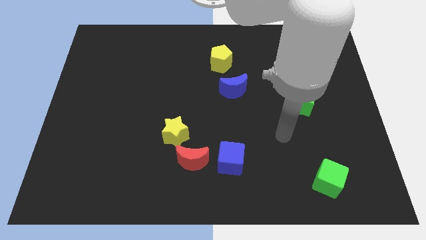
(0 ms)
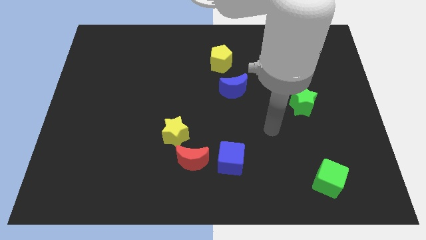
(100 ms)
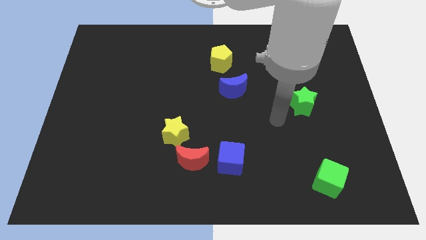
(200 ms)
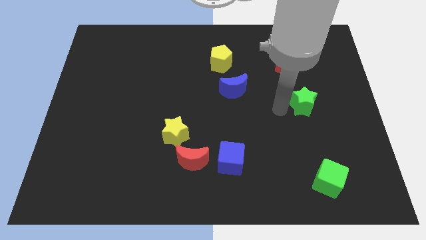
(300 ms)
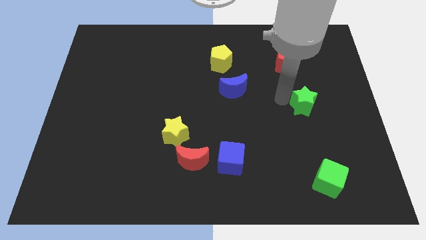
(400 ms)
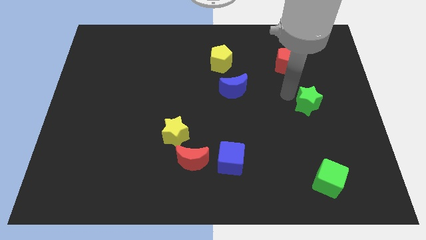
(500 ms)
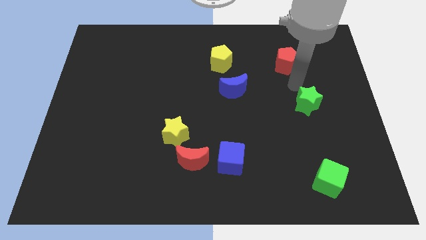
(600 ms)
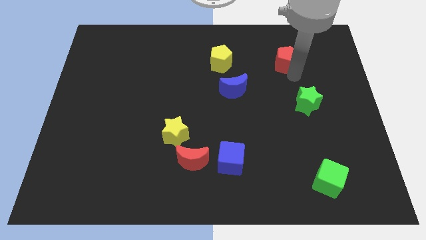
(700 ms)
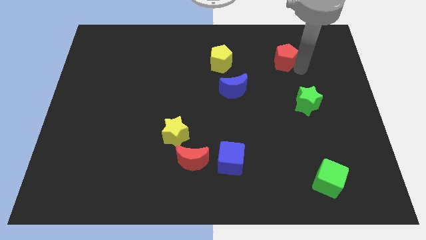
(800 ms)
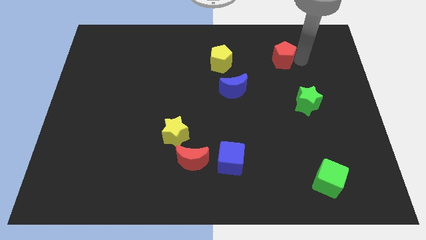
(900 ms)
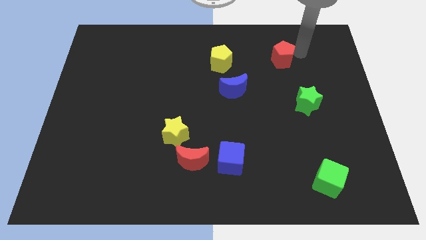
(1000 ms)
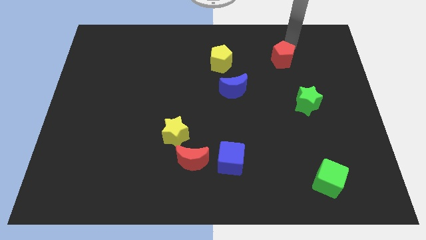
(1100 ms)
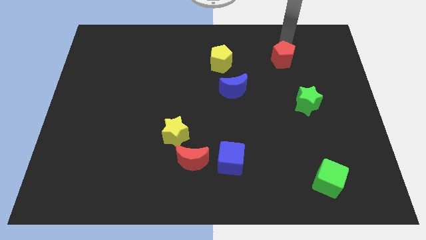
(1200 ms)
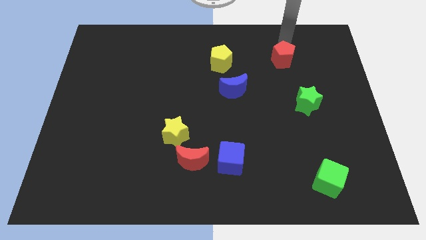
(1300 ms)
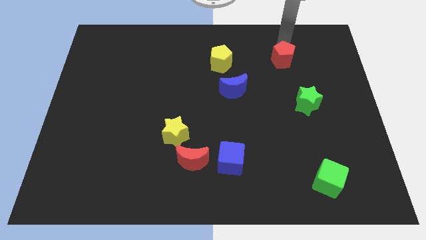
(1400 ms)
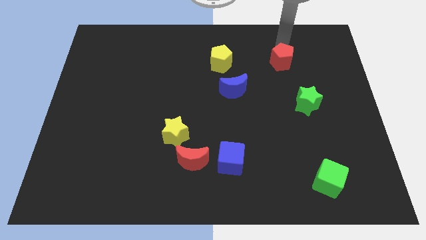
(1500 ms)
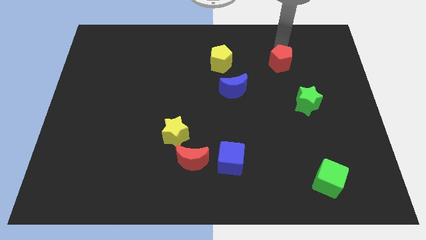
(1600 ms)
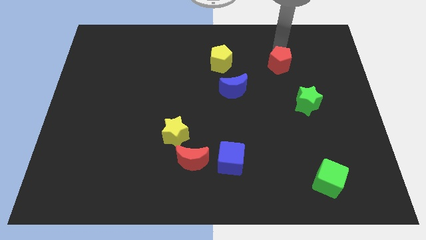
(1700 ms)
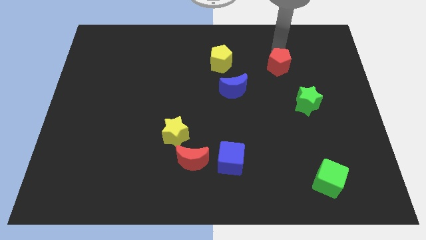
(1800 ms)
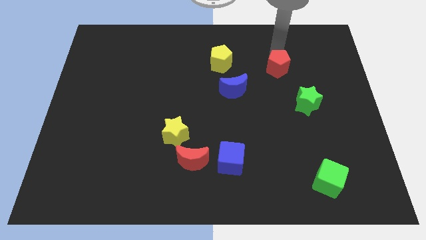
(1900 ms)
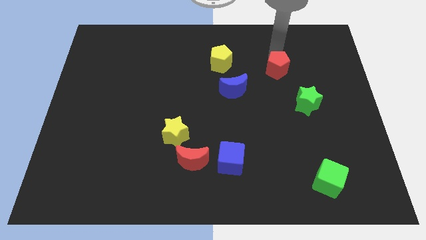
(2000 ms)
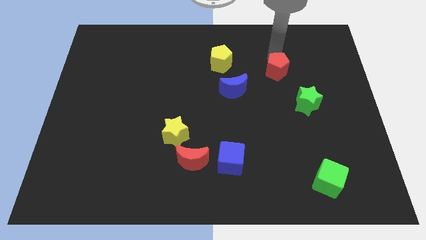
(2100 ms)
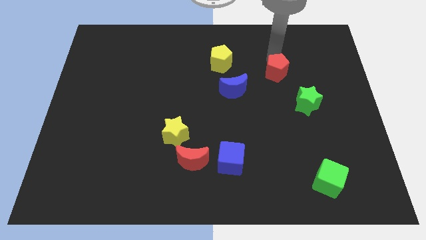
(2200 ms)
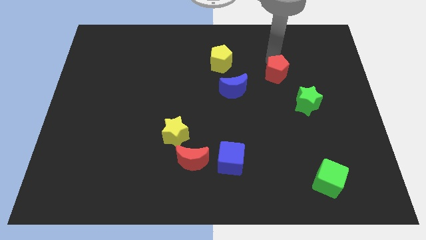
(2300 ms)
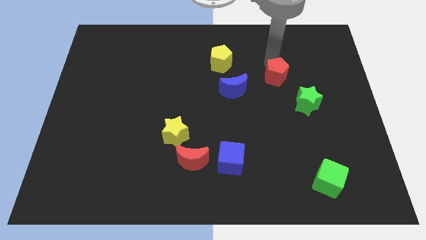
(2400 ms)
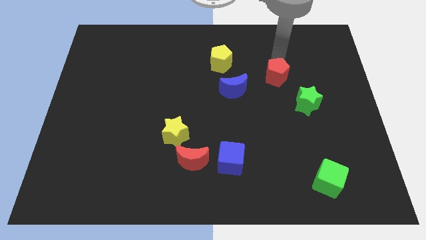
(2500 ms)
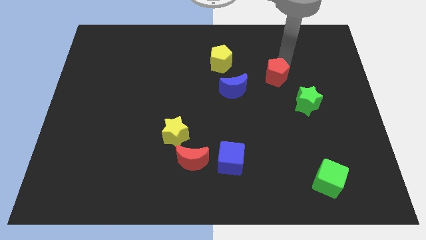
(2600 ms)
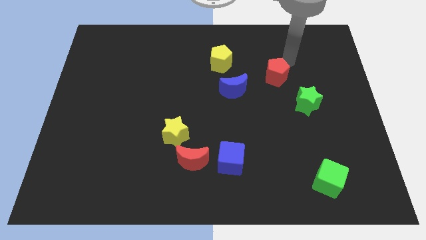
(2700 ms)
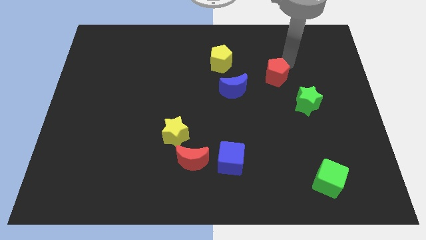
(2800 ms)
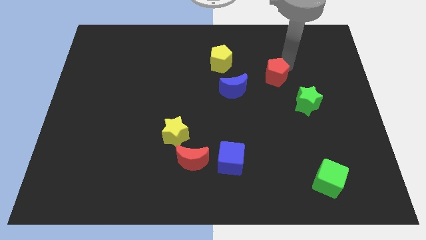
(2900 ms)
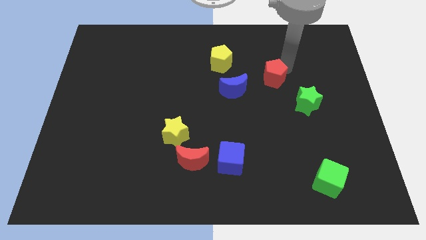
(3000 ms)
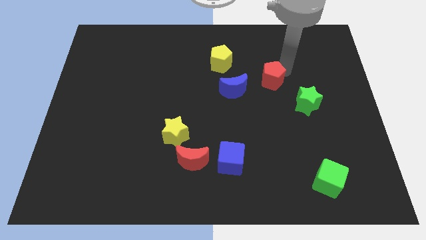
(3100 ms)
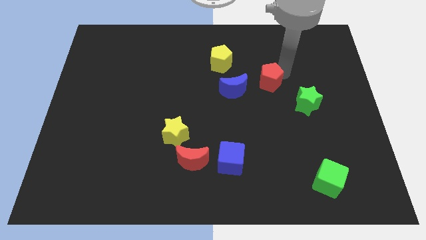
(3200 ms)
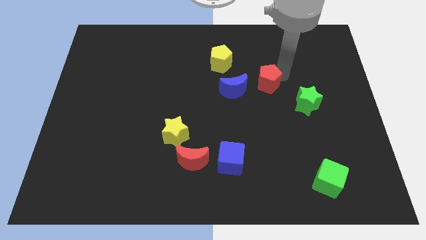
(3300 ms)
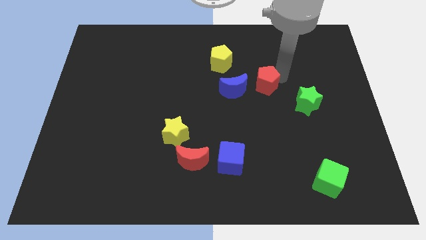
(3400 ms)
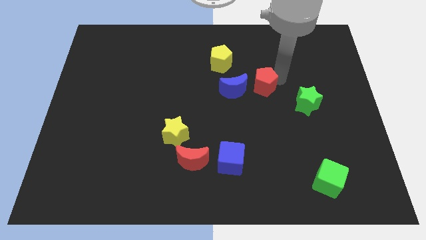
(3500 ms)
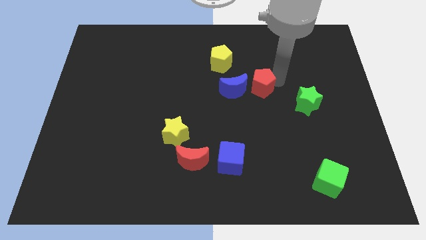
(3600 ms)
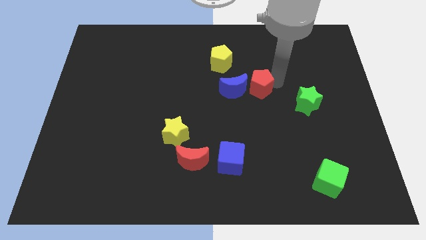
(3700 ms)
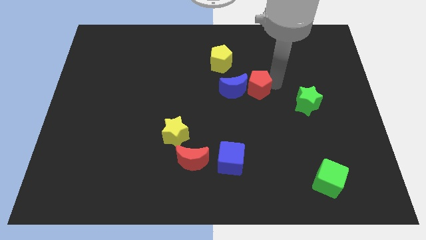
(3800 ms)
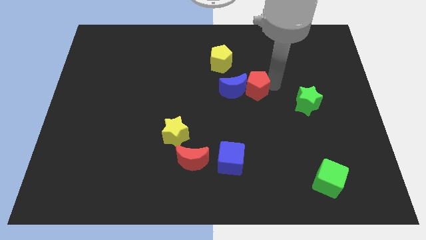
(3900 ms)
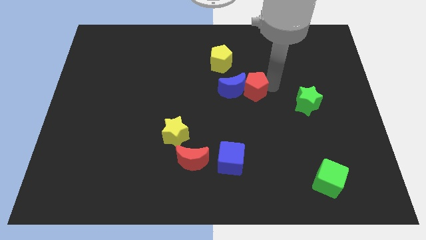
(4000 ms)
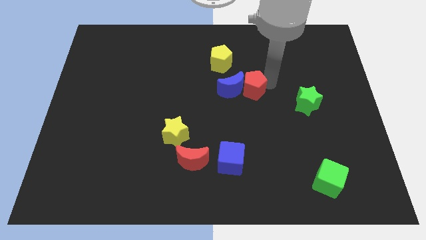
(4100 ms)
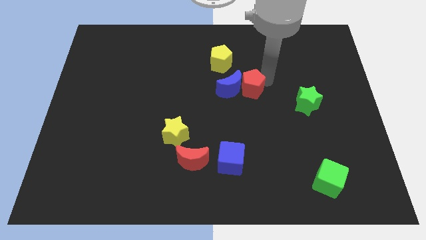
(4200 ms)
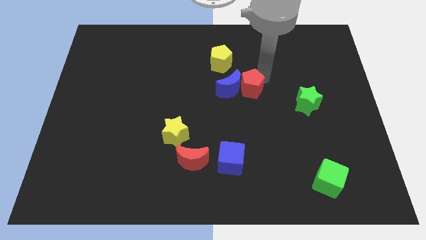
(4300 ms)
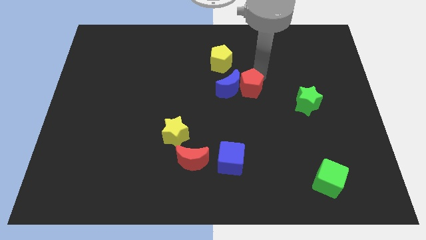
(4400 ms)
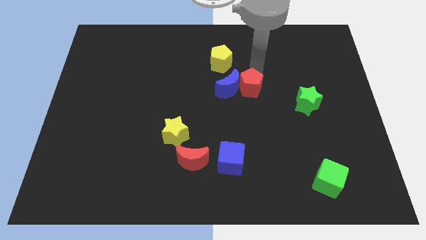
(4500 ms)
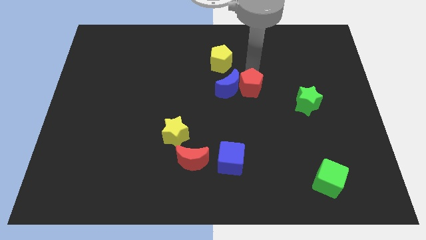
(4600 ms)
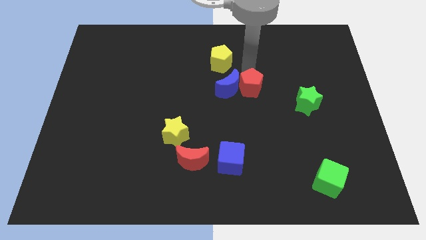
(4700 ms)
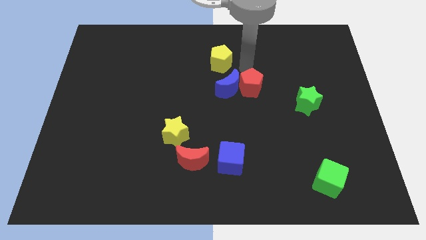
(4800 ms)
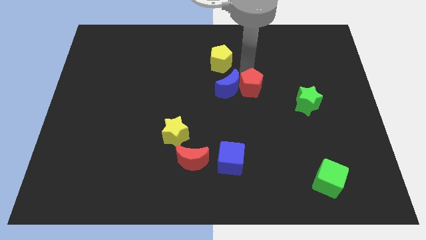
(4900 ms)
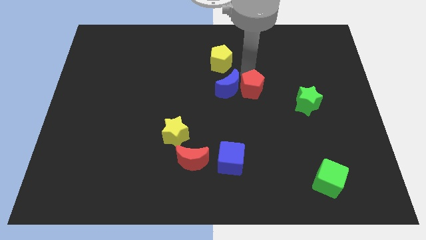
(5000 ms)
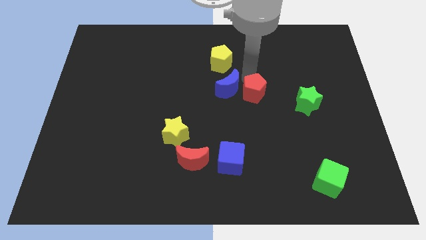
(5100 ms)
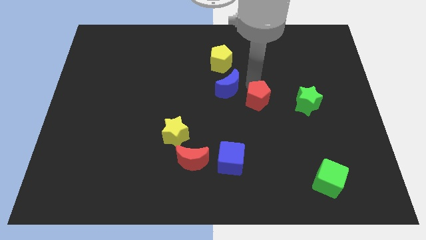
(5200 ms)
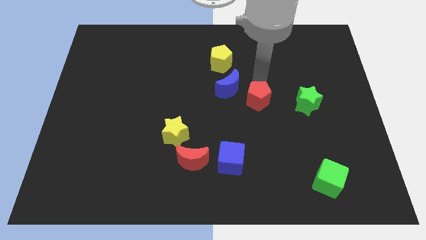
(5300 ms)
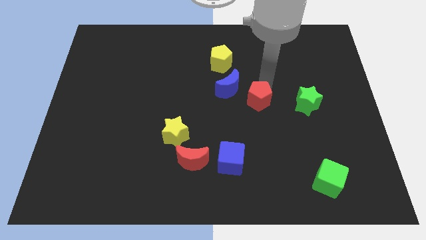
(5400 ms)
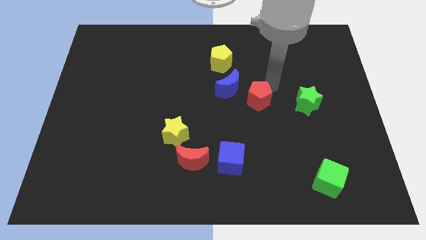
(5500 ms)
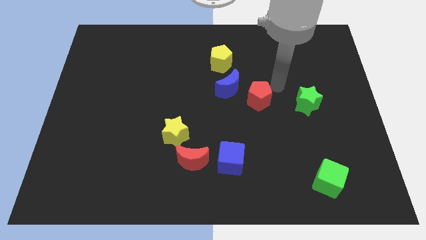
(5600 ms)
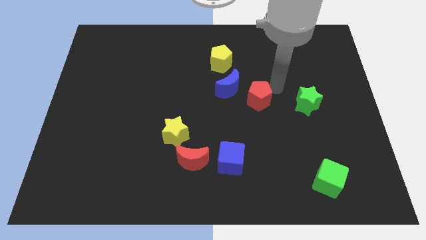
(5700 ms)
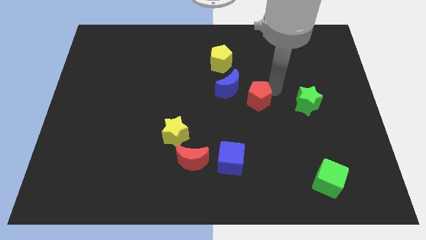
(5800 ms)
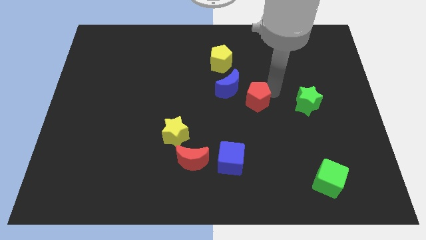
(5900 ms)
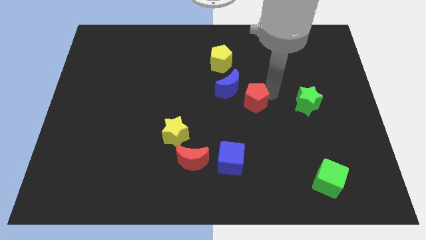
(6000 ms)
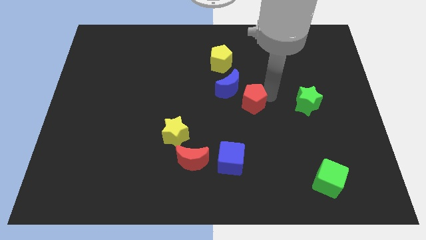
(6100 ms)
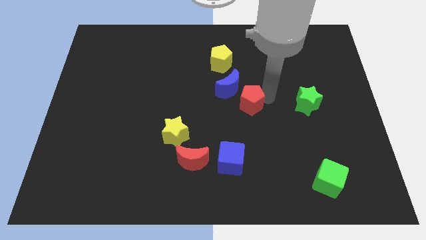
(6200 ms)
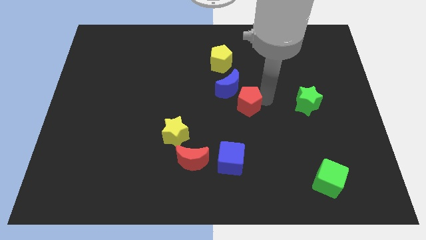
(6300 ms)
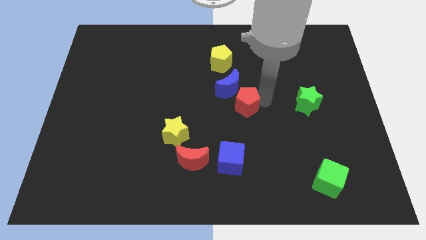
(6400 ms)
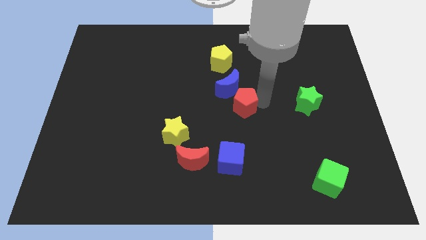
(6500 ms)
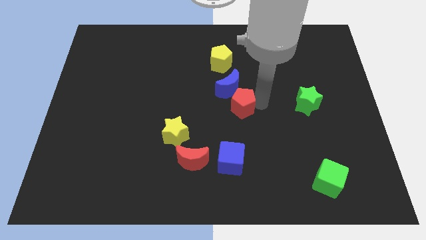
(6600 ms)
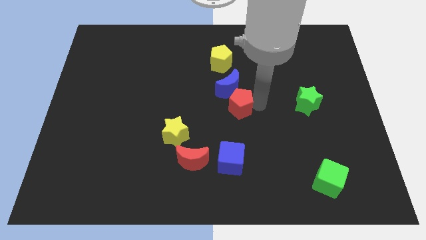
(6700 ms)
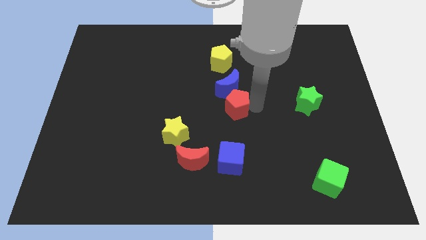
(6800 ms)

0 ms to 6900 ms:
push the red pentagon down and to the left diagonally

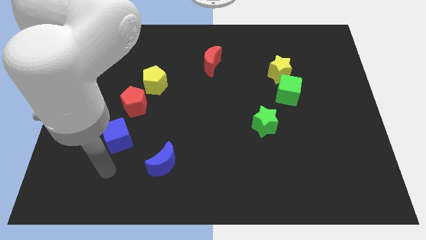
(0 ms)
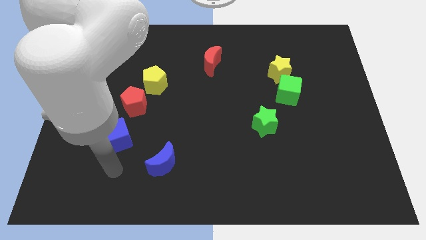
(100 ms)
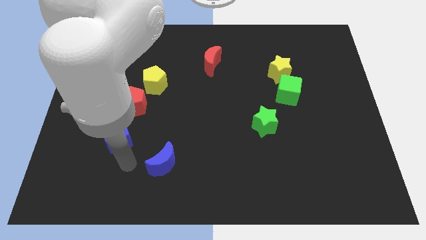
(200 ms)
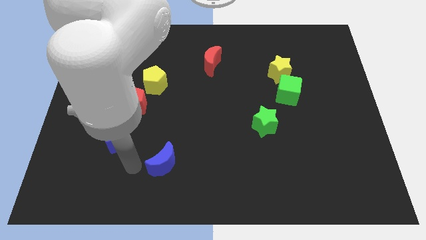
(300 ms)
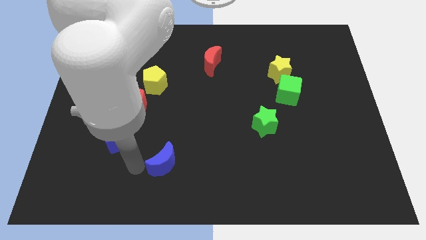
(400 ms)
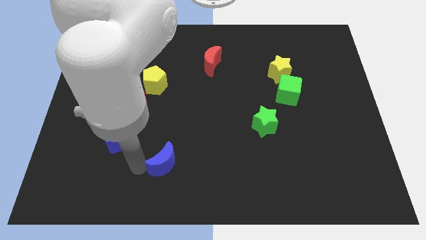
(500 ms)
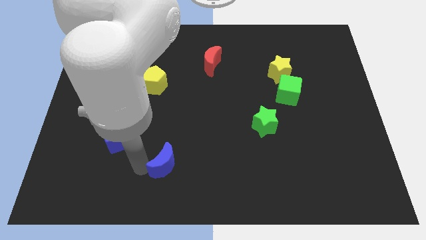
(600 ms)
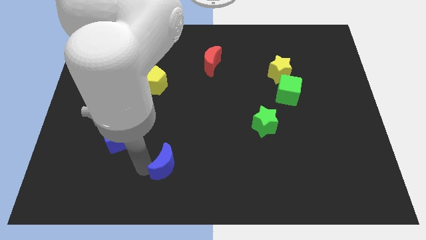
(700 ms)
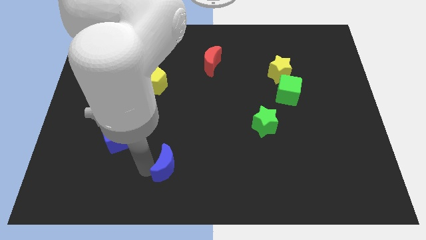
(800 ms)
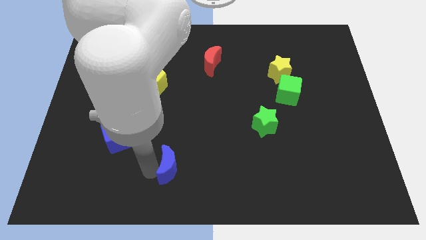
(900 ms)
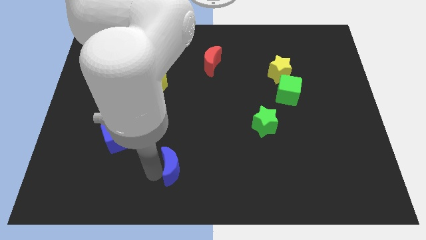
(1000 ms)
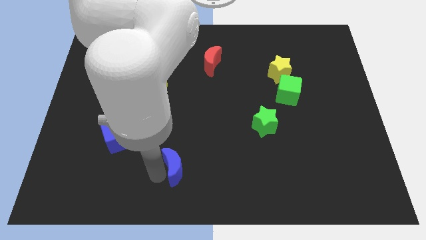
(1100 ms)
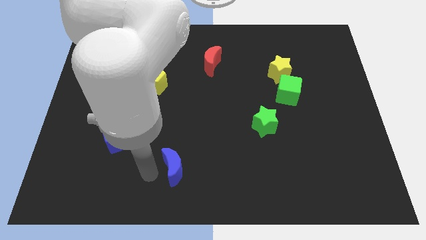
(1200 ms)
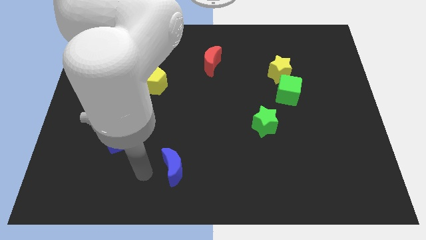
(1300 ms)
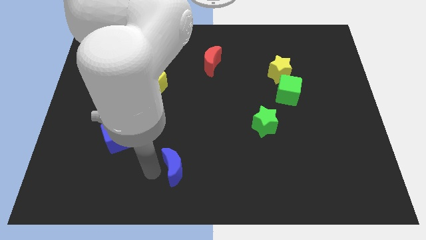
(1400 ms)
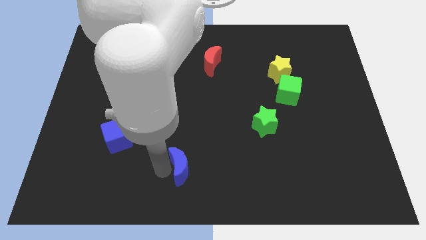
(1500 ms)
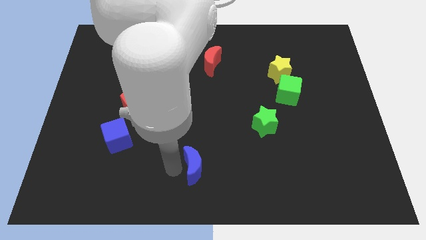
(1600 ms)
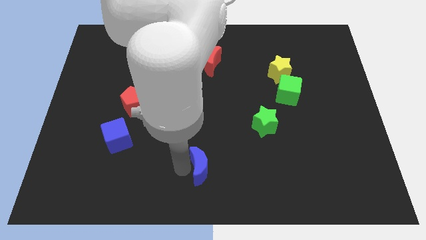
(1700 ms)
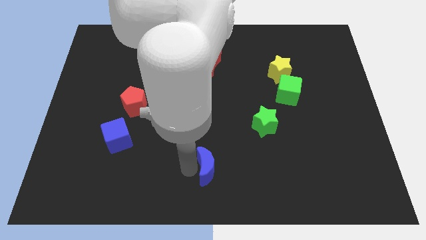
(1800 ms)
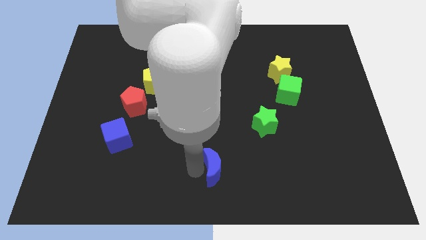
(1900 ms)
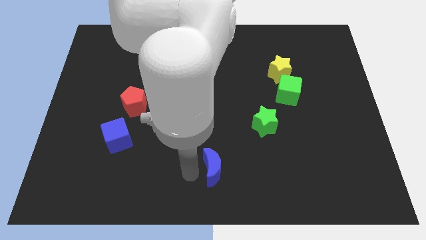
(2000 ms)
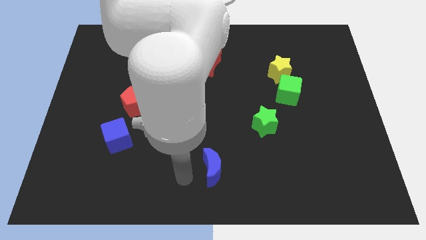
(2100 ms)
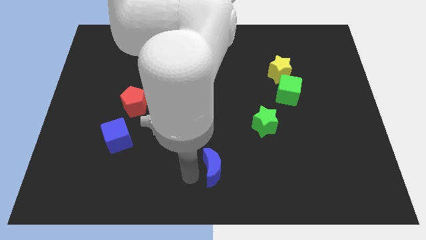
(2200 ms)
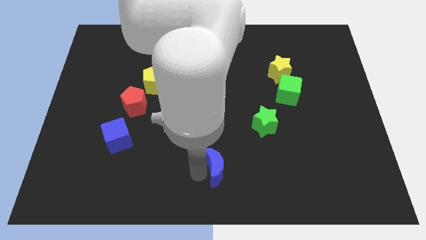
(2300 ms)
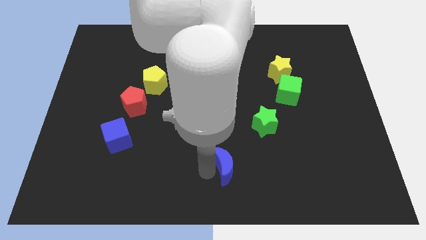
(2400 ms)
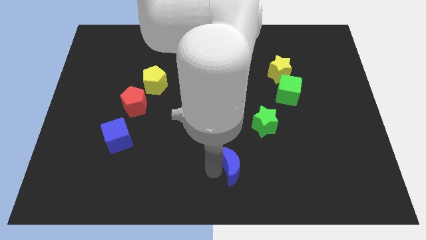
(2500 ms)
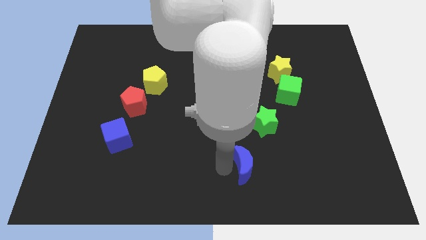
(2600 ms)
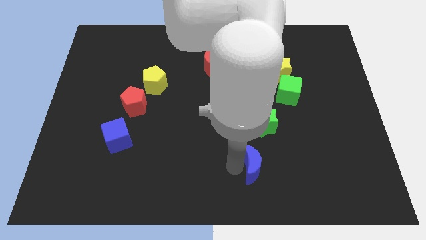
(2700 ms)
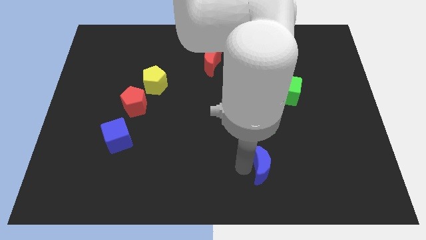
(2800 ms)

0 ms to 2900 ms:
slide the blue moon right
